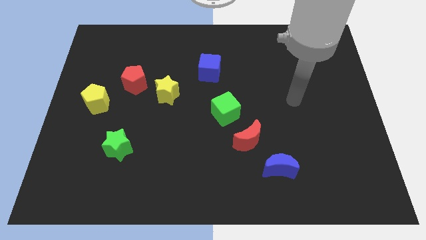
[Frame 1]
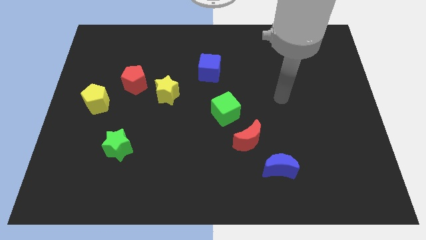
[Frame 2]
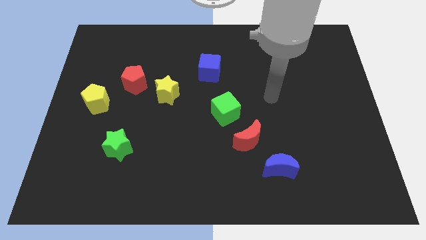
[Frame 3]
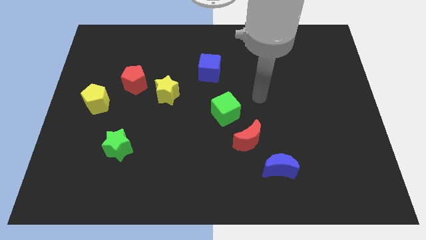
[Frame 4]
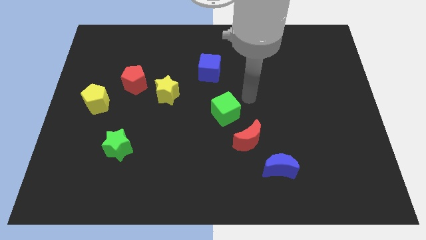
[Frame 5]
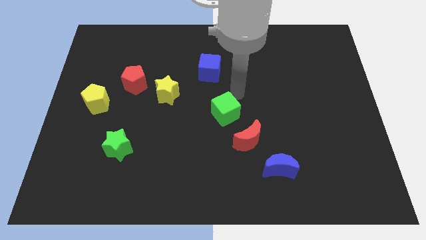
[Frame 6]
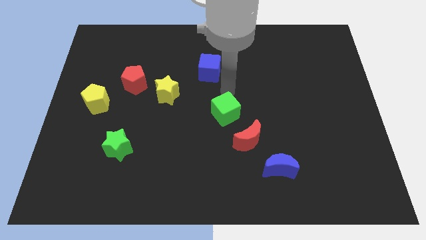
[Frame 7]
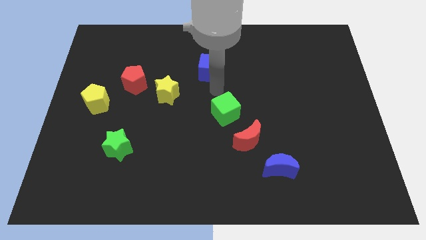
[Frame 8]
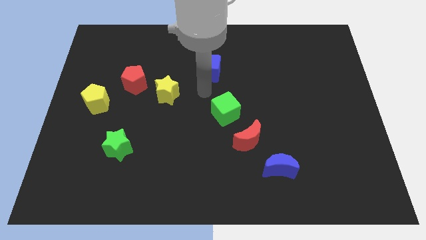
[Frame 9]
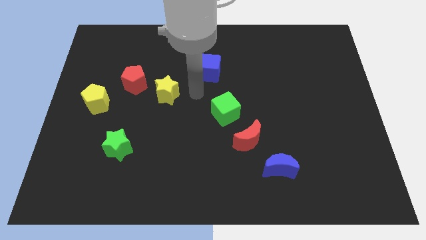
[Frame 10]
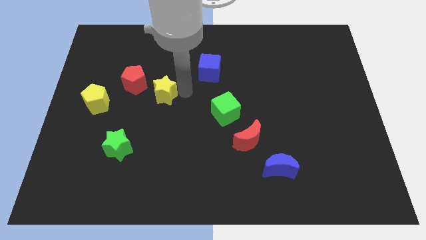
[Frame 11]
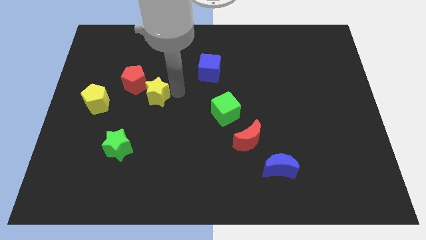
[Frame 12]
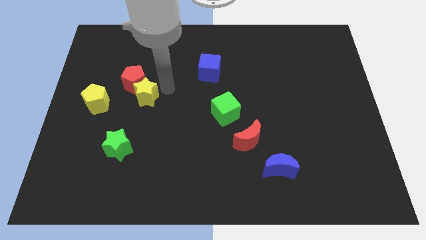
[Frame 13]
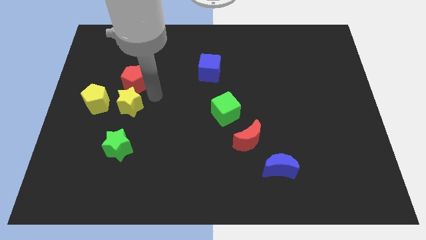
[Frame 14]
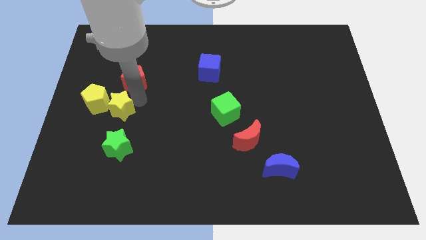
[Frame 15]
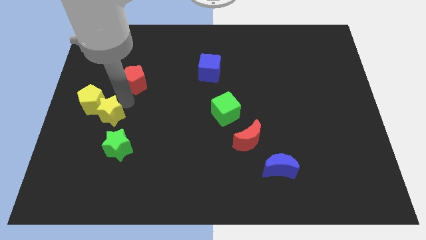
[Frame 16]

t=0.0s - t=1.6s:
separate the red pentagon from the yellow star

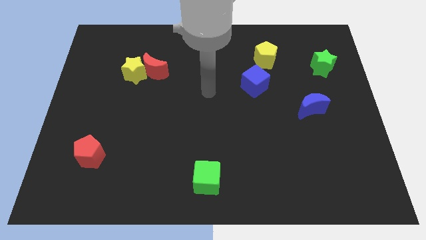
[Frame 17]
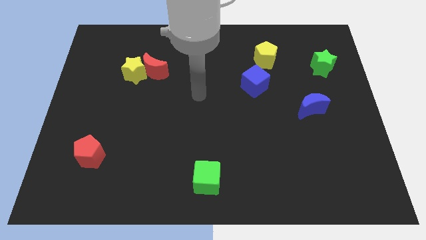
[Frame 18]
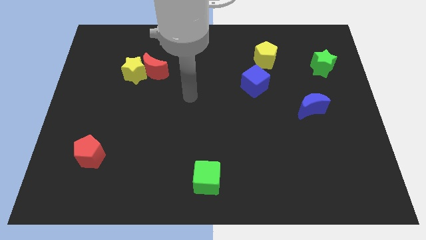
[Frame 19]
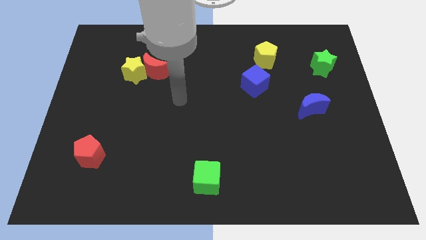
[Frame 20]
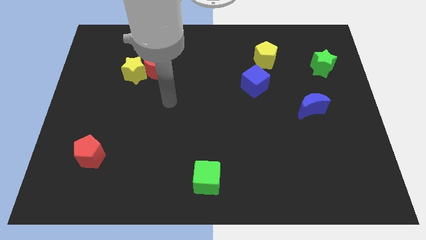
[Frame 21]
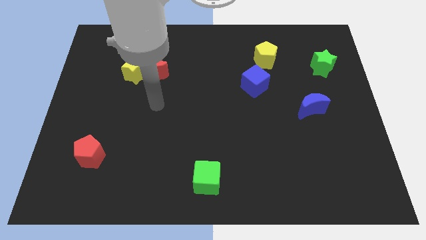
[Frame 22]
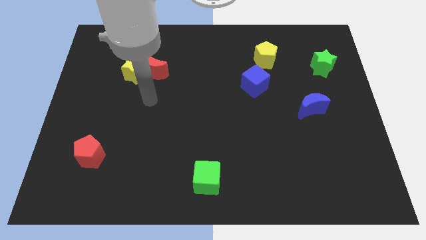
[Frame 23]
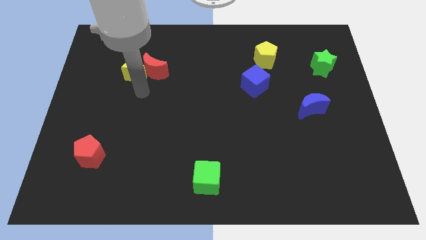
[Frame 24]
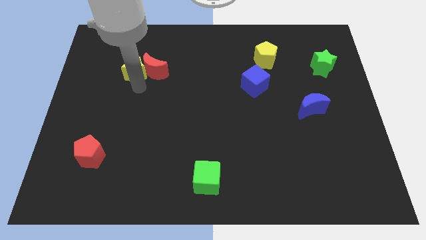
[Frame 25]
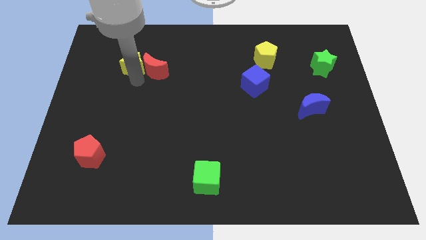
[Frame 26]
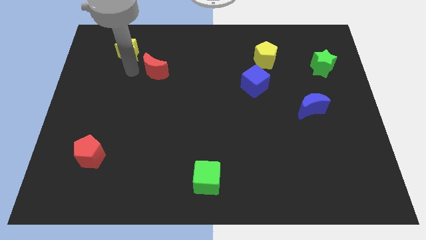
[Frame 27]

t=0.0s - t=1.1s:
separate the red moon from the yellow star

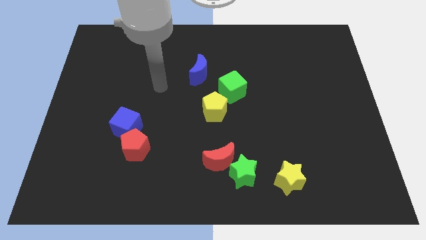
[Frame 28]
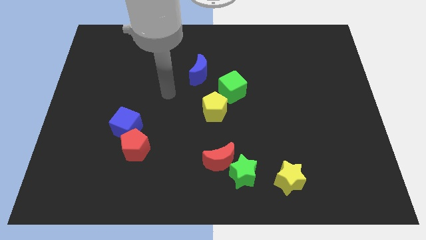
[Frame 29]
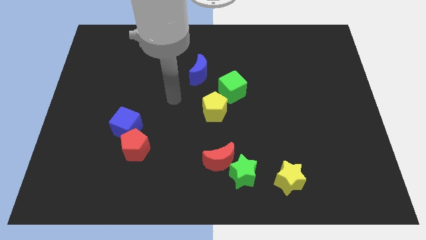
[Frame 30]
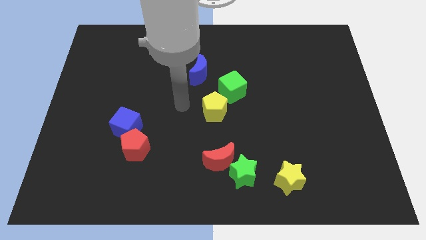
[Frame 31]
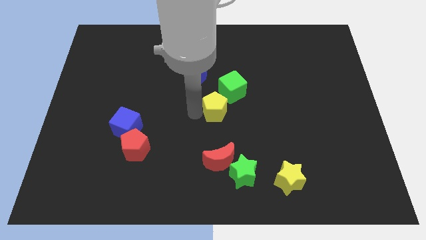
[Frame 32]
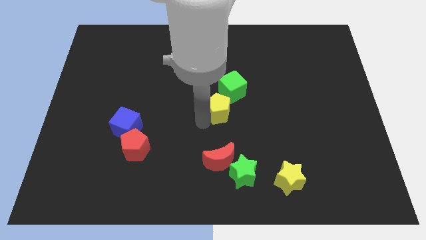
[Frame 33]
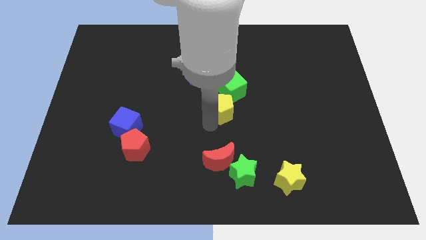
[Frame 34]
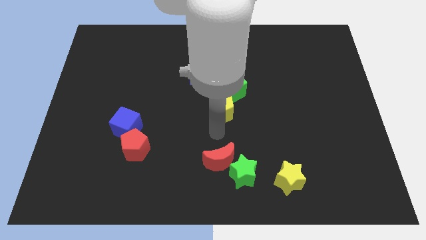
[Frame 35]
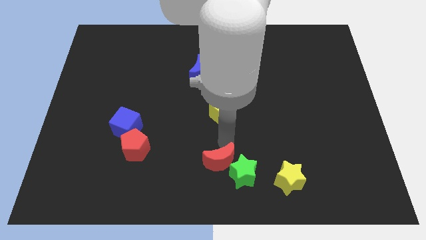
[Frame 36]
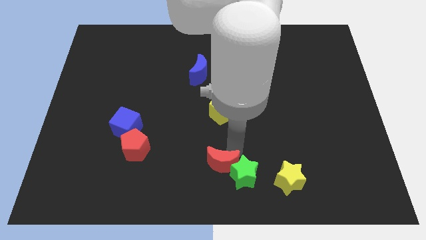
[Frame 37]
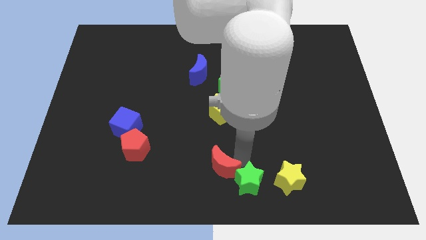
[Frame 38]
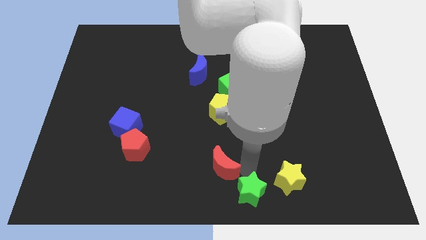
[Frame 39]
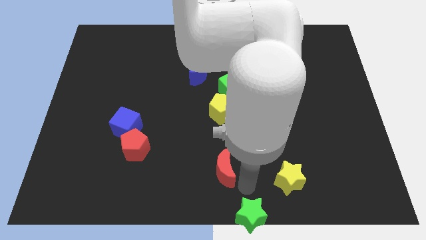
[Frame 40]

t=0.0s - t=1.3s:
pull the red moon apart from the green star

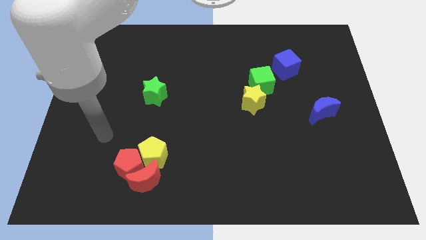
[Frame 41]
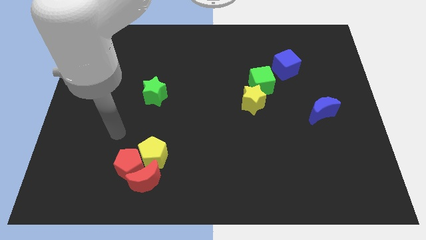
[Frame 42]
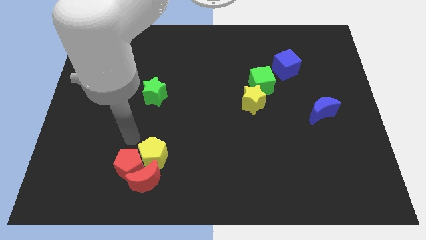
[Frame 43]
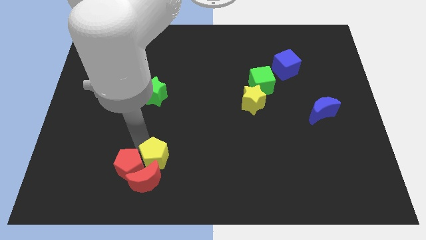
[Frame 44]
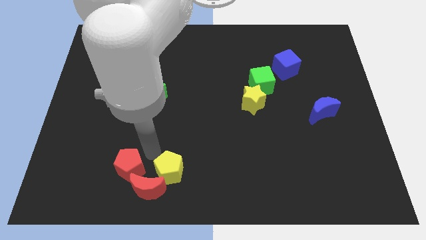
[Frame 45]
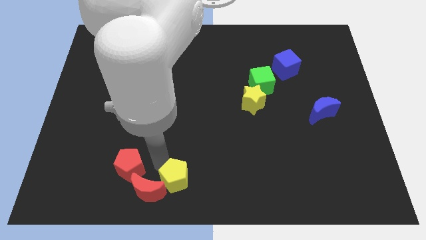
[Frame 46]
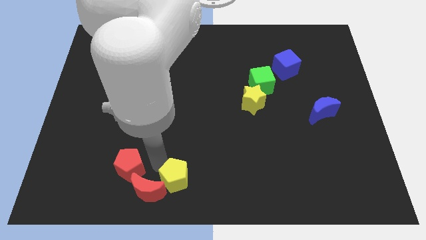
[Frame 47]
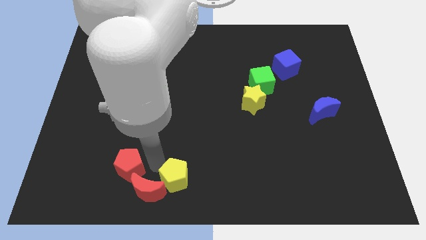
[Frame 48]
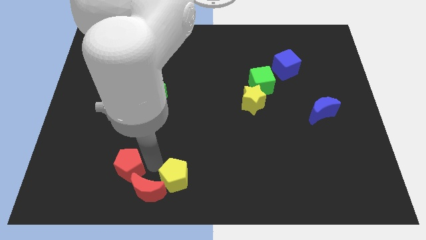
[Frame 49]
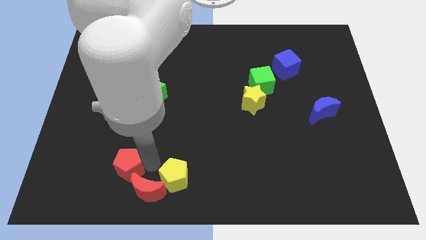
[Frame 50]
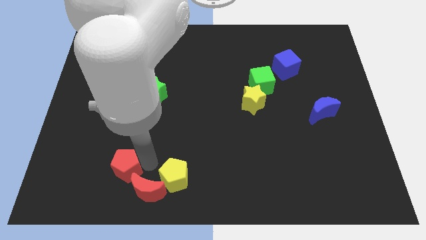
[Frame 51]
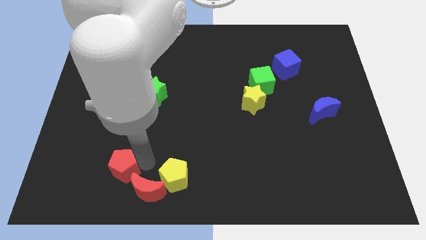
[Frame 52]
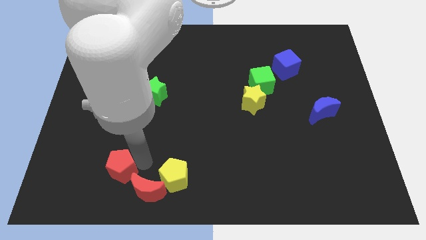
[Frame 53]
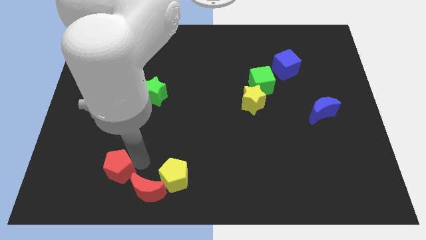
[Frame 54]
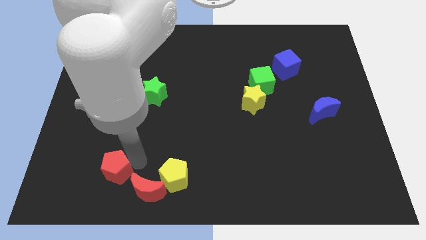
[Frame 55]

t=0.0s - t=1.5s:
pull the red pentagon apart from the red moon and yellow pentagon

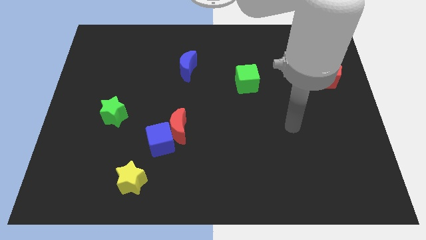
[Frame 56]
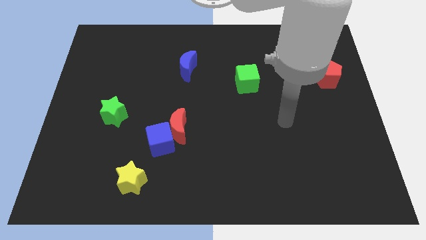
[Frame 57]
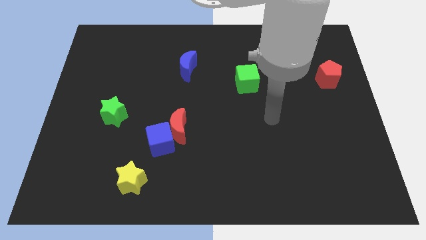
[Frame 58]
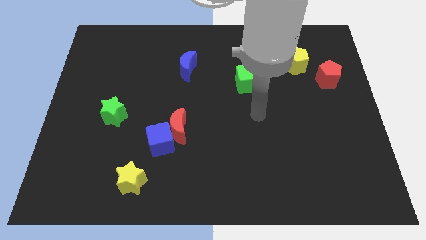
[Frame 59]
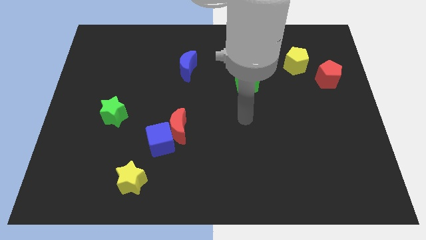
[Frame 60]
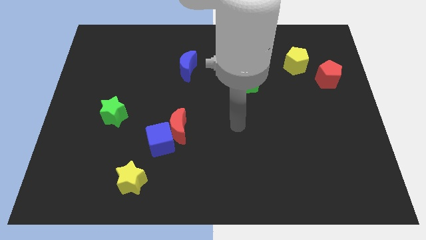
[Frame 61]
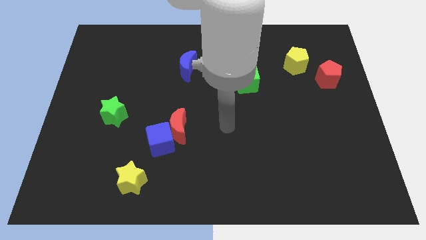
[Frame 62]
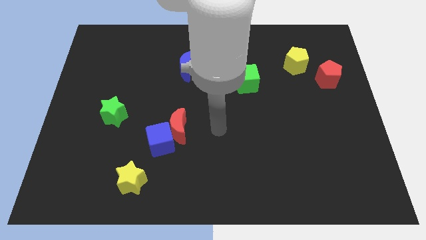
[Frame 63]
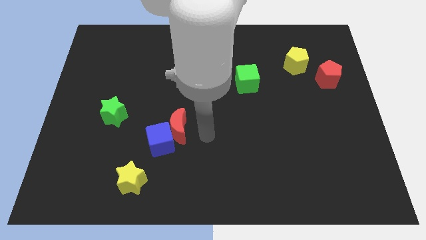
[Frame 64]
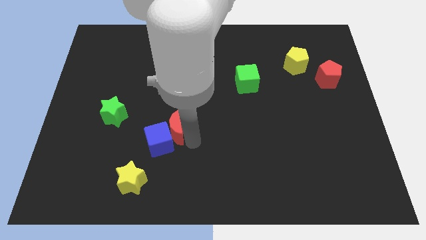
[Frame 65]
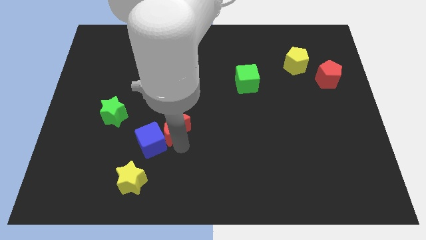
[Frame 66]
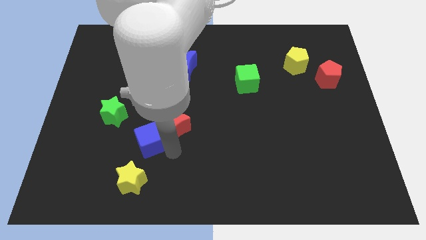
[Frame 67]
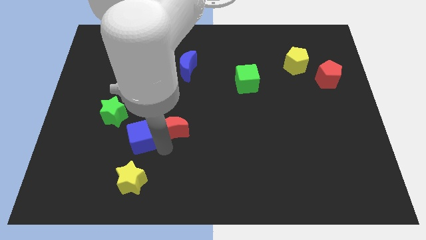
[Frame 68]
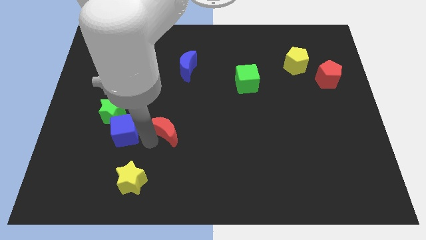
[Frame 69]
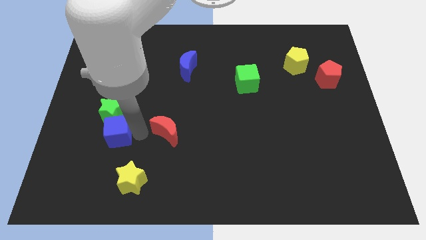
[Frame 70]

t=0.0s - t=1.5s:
pull the red moon apart from the blue cube

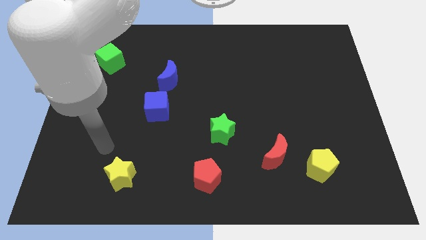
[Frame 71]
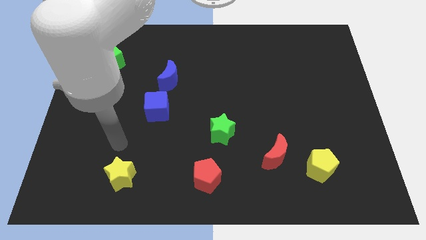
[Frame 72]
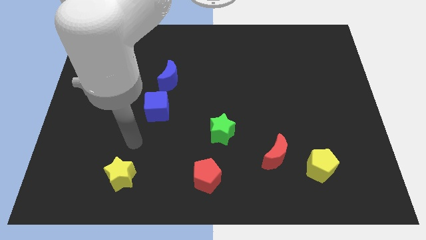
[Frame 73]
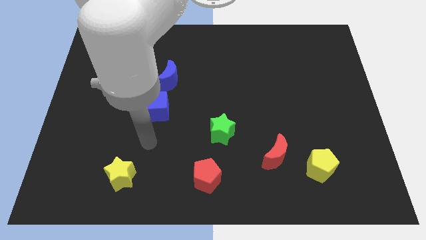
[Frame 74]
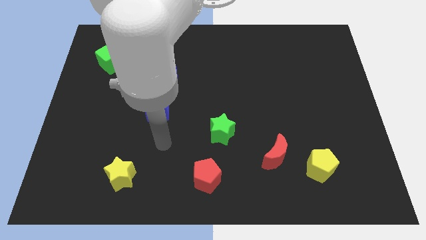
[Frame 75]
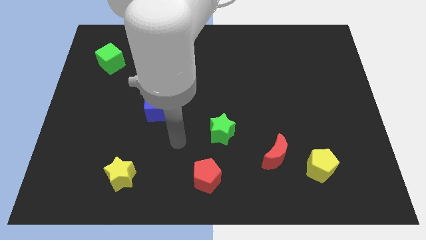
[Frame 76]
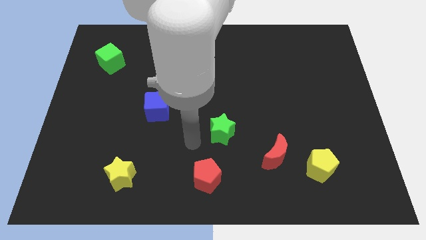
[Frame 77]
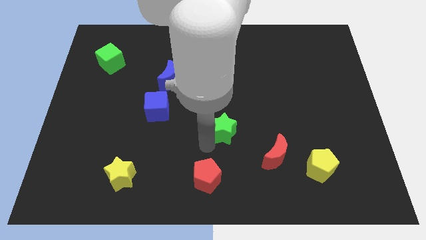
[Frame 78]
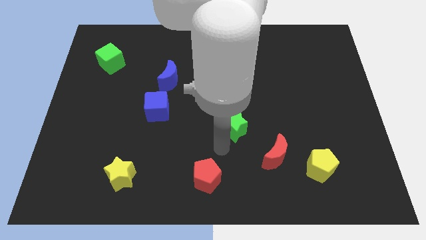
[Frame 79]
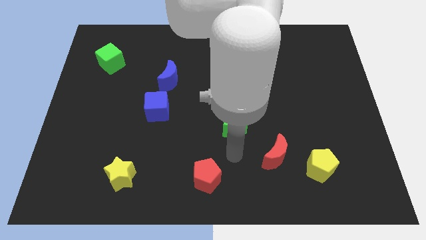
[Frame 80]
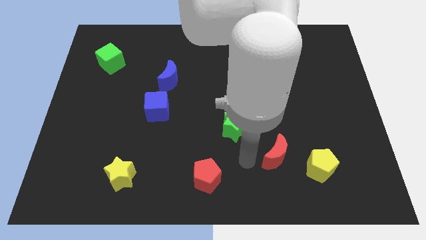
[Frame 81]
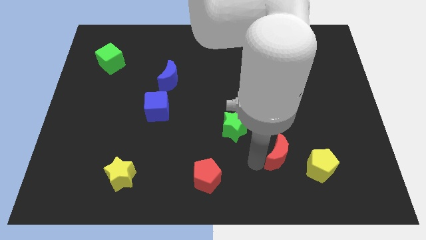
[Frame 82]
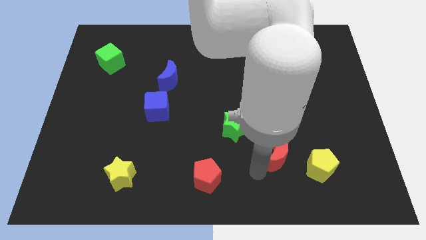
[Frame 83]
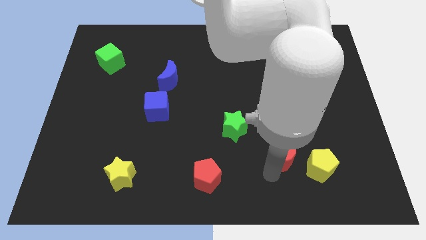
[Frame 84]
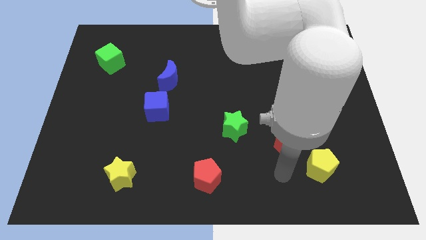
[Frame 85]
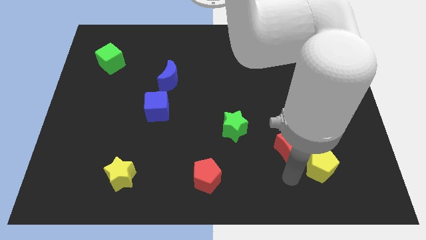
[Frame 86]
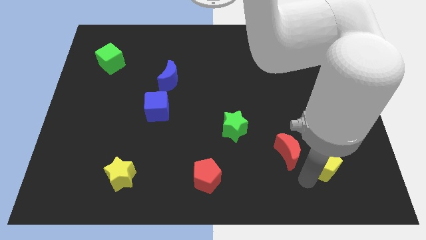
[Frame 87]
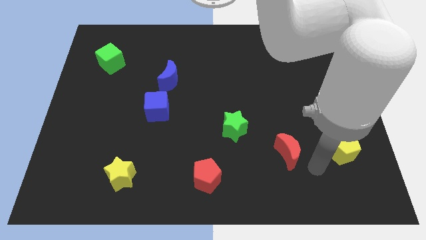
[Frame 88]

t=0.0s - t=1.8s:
pull the red moon apart from the yellow pentagon

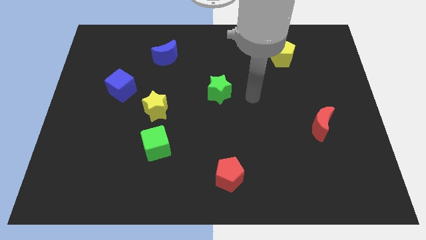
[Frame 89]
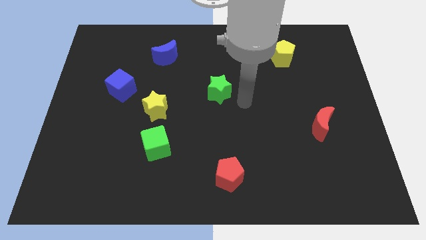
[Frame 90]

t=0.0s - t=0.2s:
pull the green cube apart from the yellow star

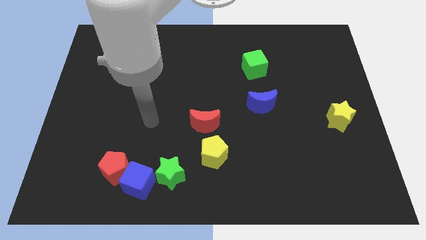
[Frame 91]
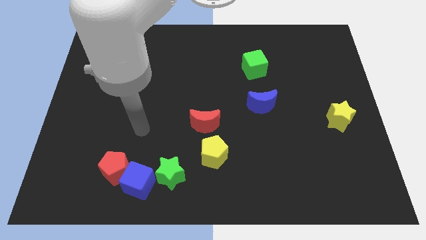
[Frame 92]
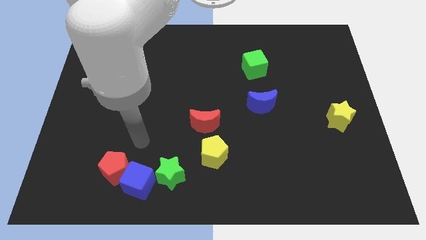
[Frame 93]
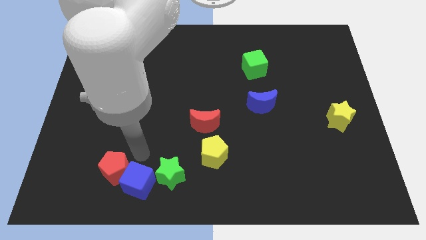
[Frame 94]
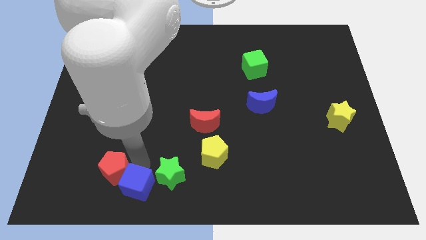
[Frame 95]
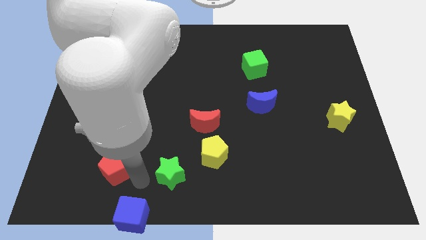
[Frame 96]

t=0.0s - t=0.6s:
move the red pentagon away from the blue cube
